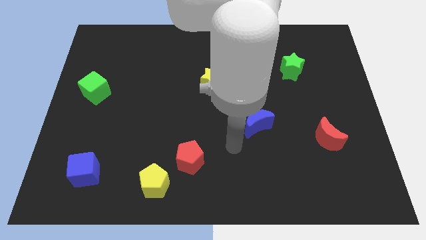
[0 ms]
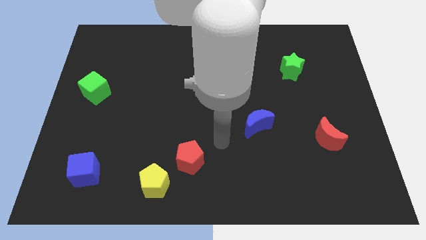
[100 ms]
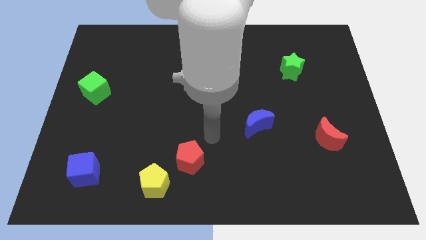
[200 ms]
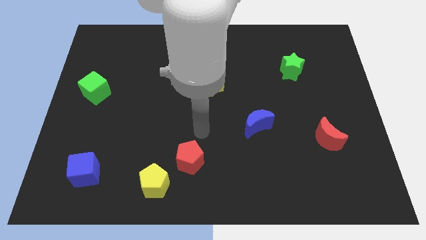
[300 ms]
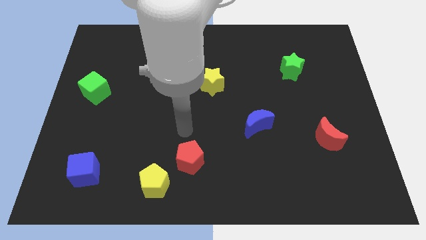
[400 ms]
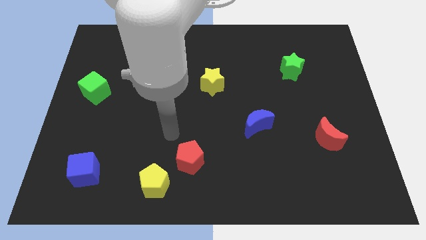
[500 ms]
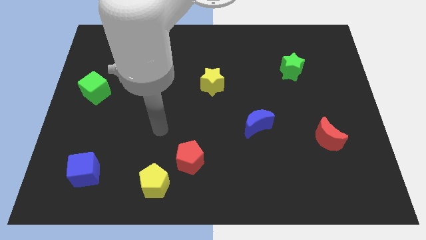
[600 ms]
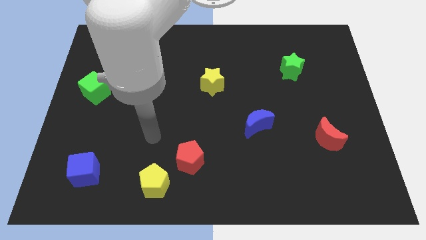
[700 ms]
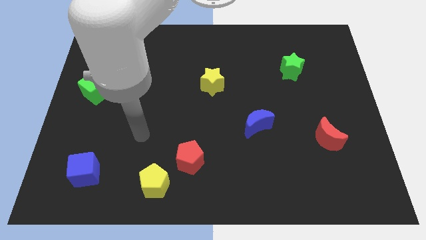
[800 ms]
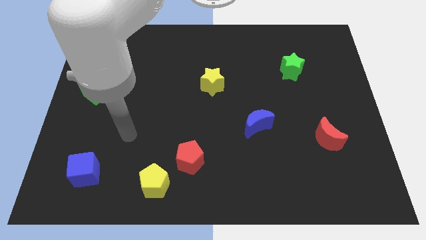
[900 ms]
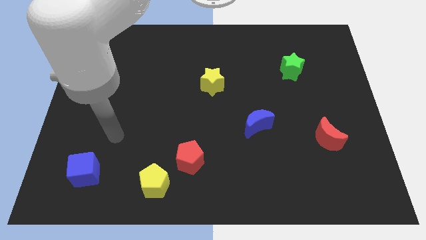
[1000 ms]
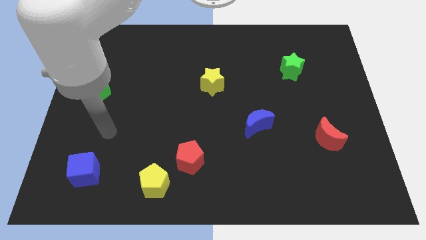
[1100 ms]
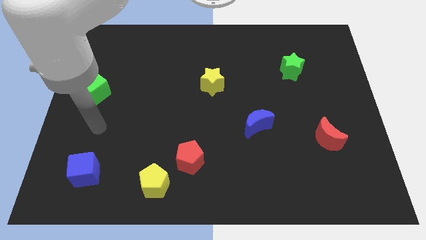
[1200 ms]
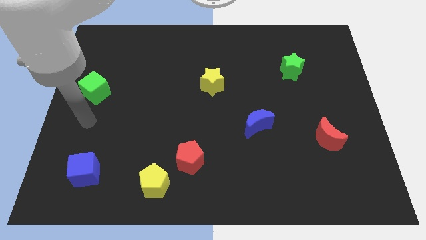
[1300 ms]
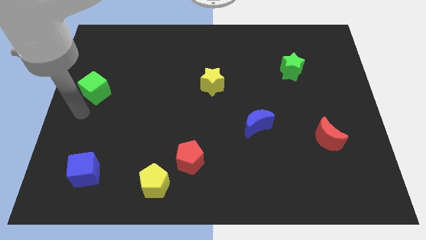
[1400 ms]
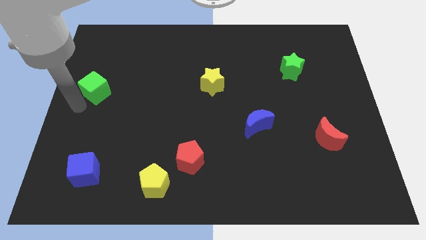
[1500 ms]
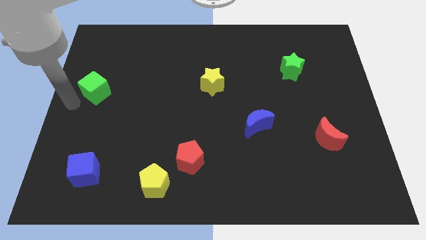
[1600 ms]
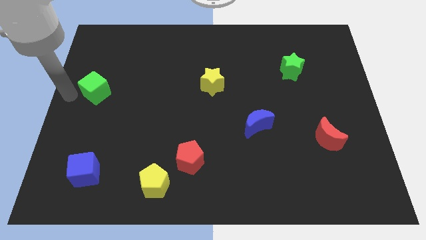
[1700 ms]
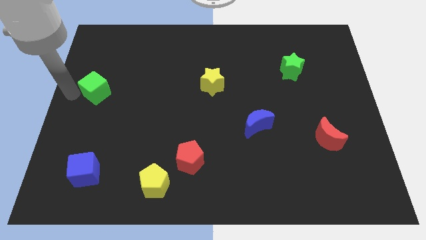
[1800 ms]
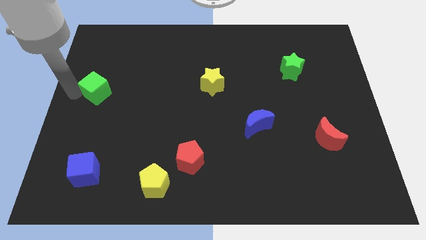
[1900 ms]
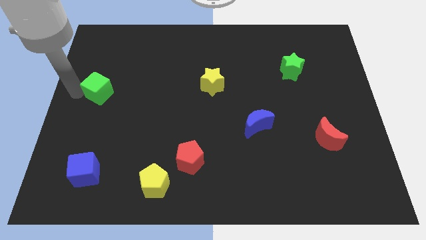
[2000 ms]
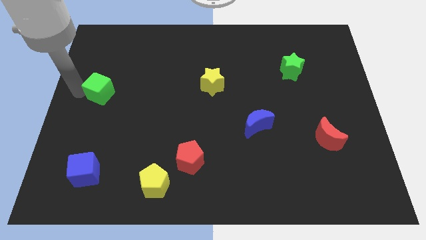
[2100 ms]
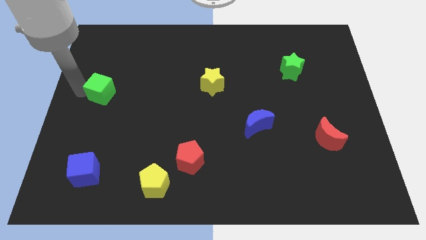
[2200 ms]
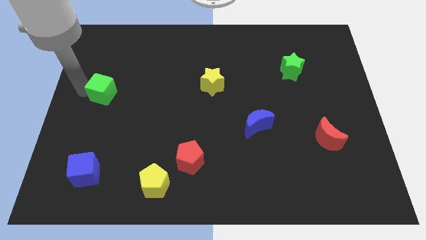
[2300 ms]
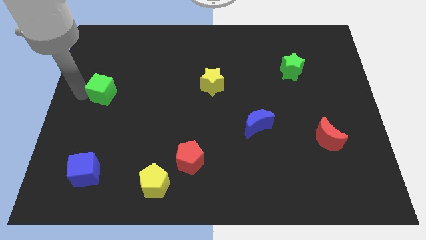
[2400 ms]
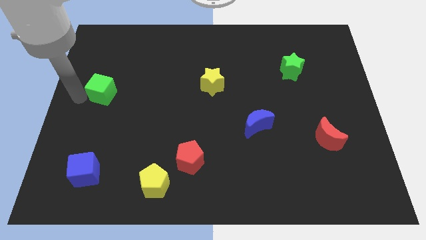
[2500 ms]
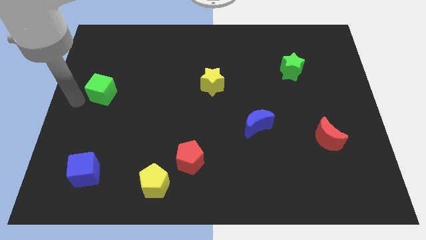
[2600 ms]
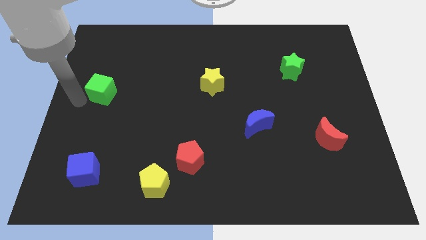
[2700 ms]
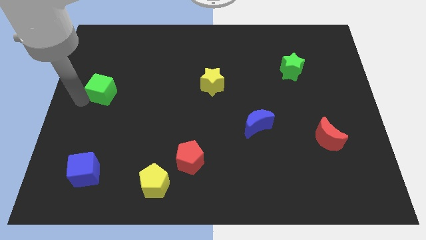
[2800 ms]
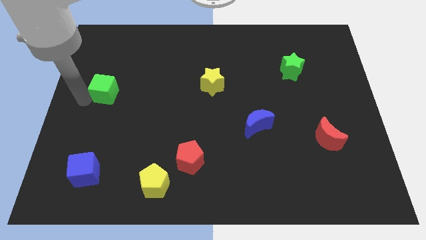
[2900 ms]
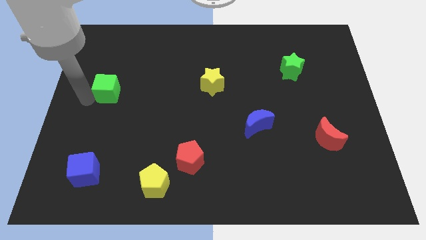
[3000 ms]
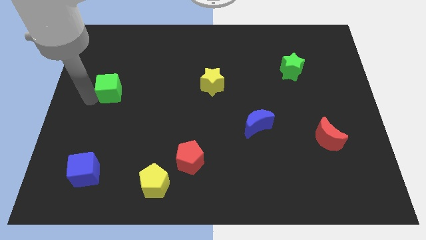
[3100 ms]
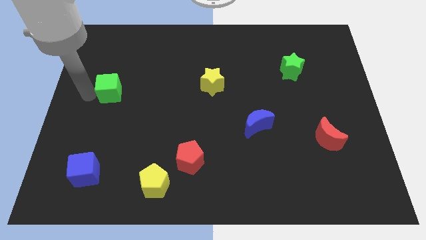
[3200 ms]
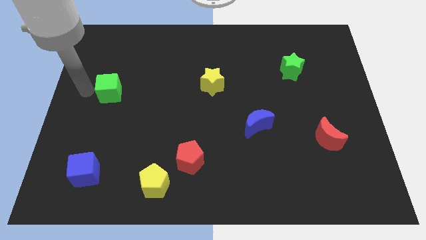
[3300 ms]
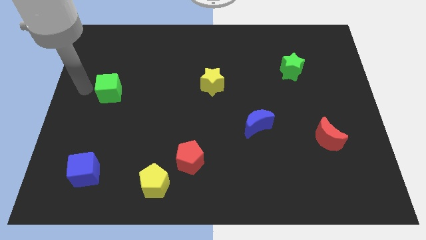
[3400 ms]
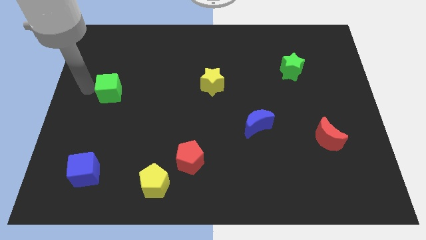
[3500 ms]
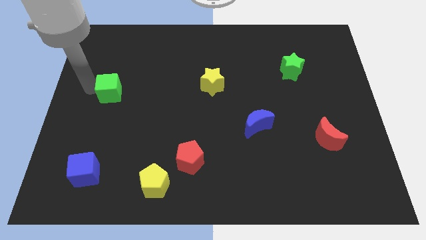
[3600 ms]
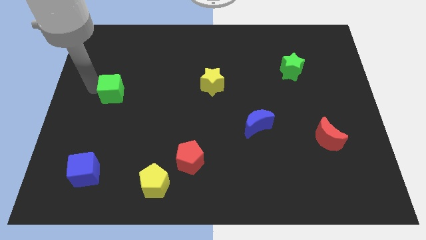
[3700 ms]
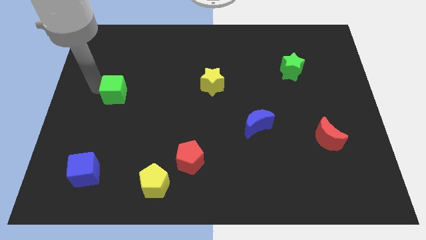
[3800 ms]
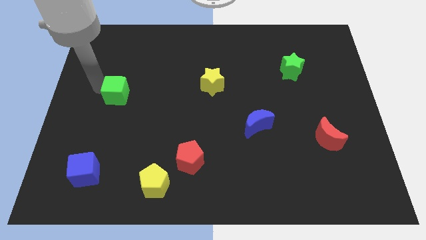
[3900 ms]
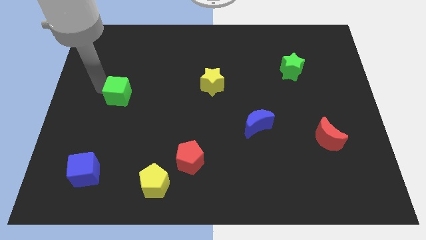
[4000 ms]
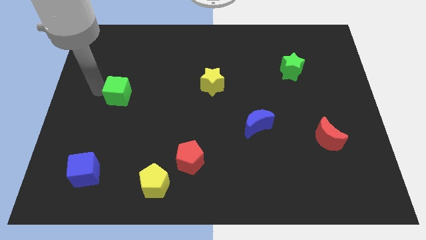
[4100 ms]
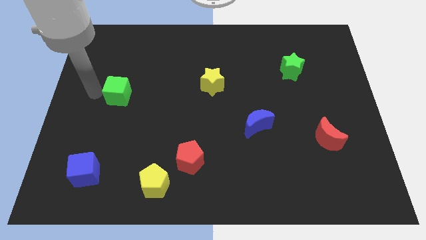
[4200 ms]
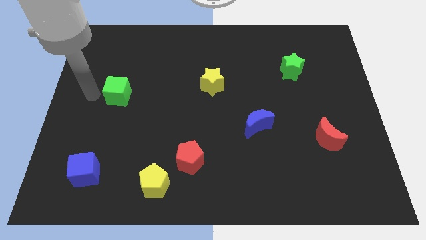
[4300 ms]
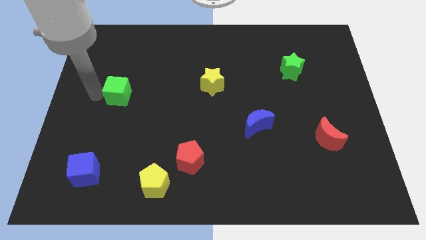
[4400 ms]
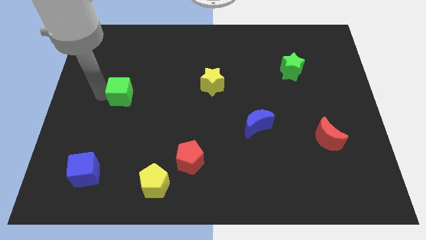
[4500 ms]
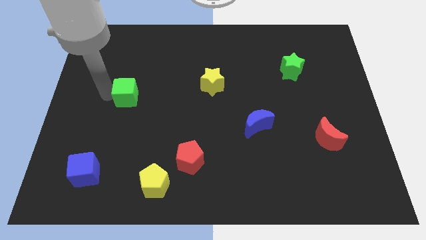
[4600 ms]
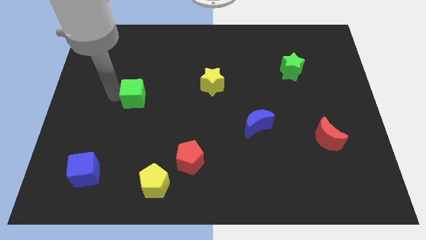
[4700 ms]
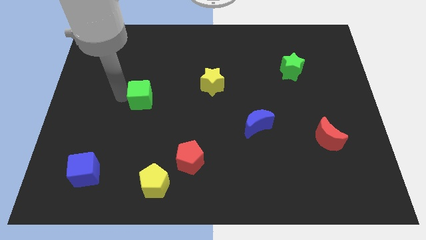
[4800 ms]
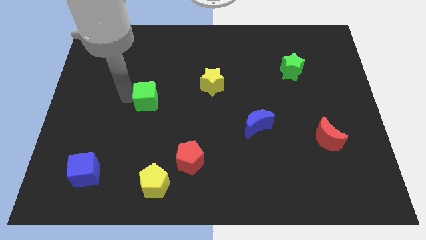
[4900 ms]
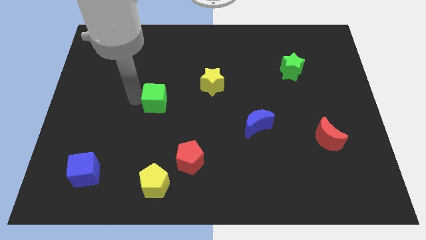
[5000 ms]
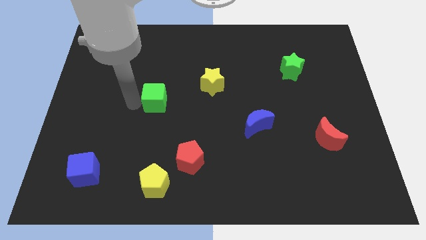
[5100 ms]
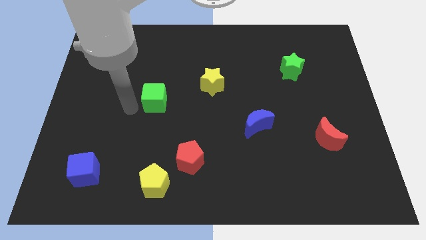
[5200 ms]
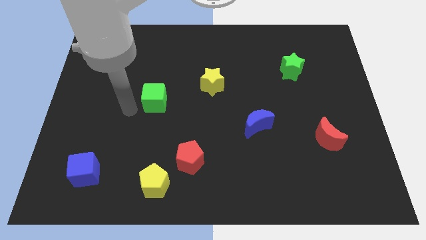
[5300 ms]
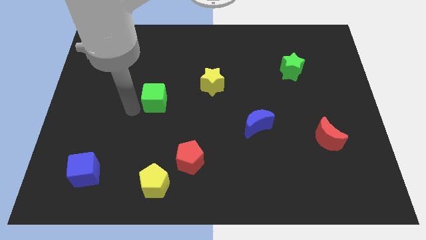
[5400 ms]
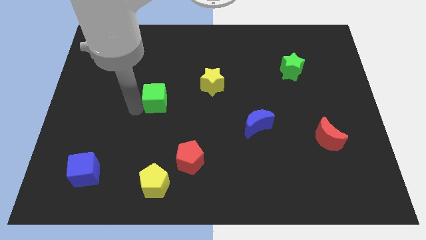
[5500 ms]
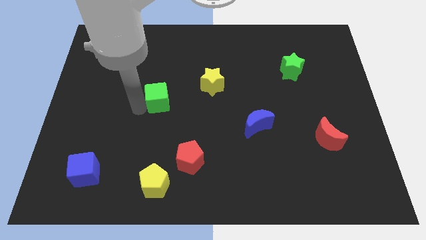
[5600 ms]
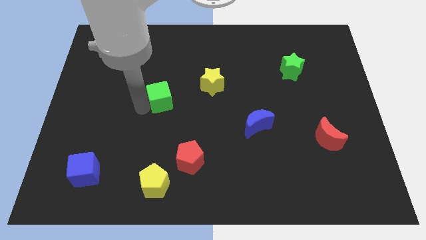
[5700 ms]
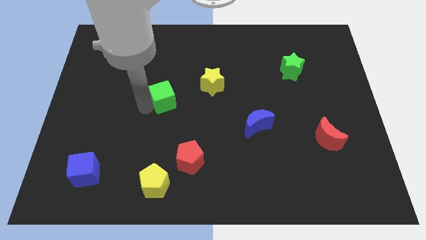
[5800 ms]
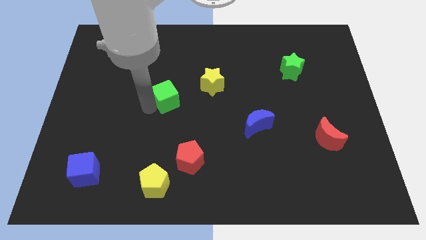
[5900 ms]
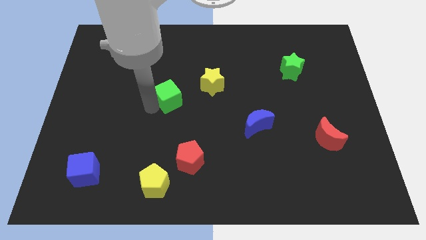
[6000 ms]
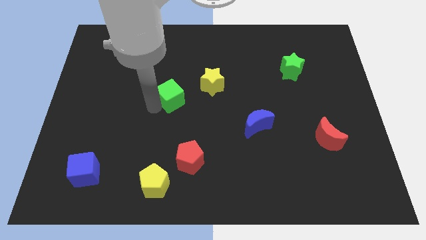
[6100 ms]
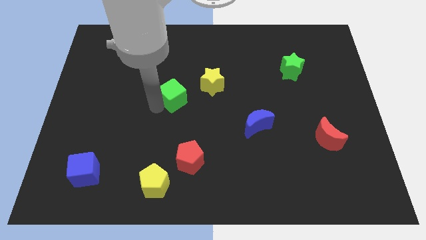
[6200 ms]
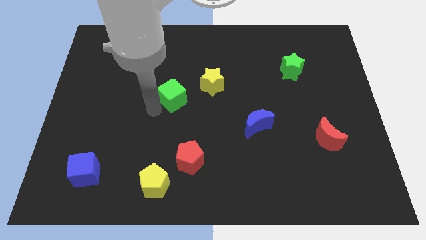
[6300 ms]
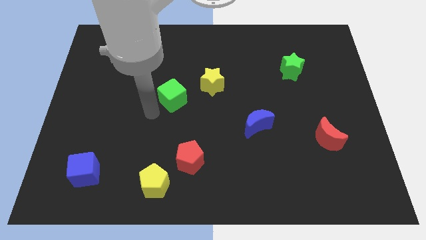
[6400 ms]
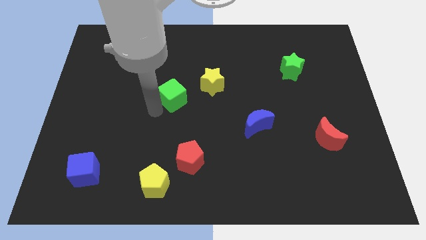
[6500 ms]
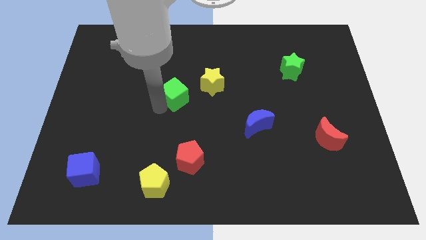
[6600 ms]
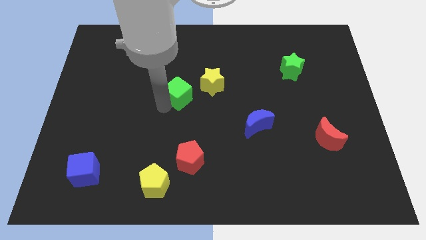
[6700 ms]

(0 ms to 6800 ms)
slide the green cube right

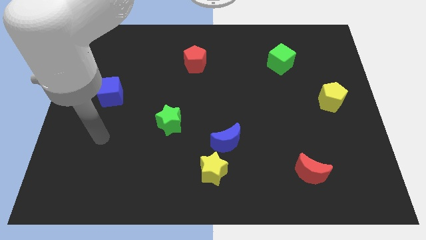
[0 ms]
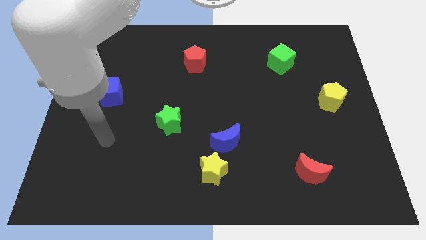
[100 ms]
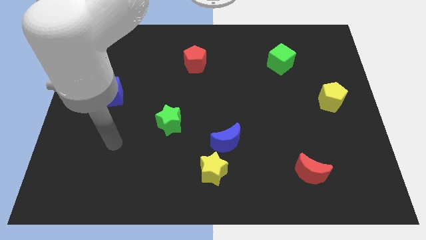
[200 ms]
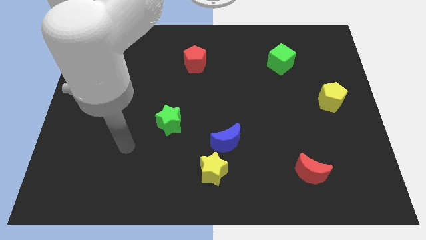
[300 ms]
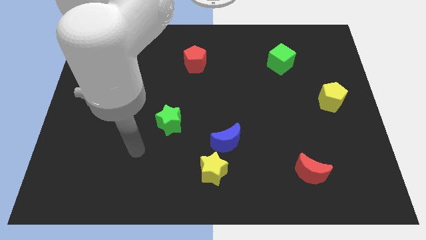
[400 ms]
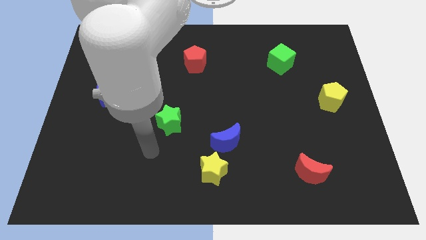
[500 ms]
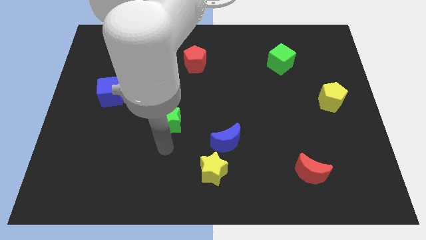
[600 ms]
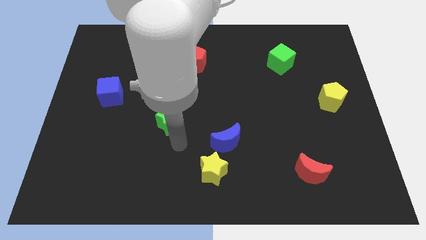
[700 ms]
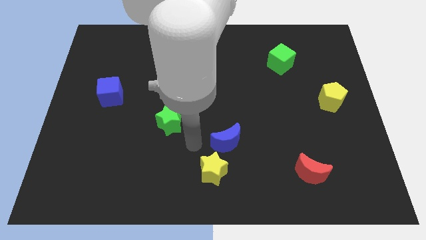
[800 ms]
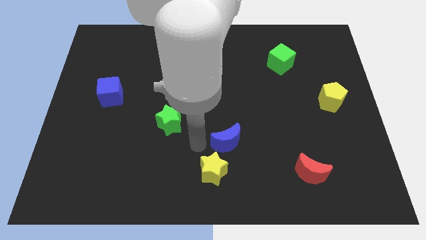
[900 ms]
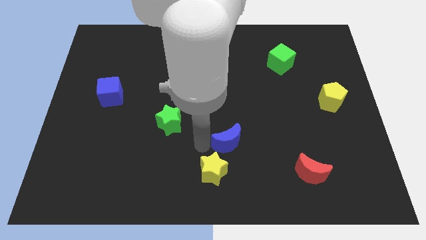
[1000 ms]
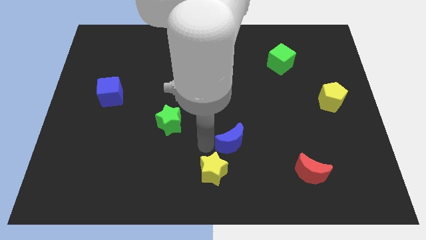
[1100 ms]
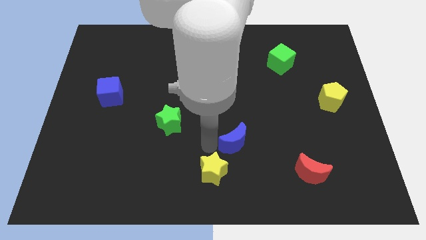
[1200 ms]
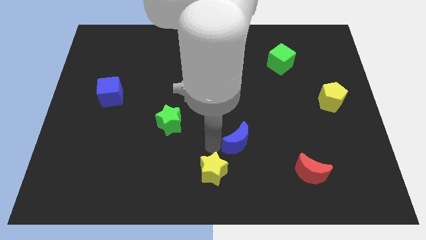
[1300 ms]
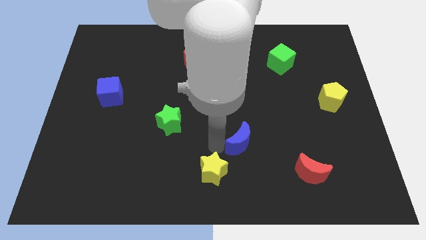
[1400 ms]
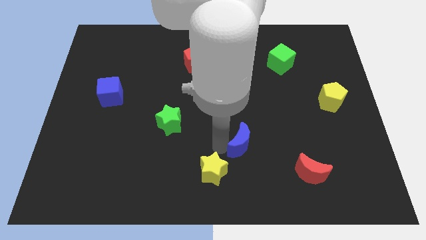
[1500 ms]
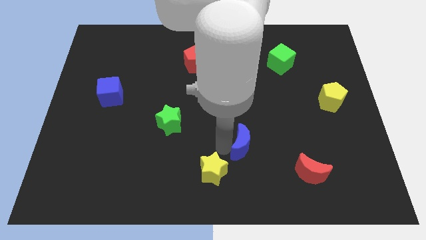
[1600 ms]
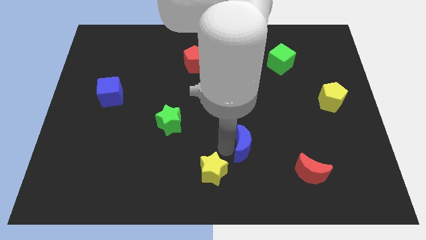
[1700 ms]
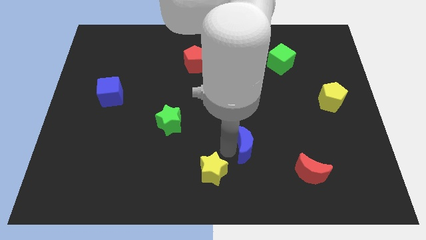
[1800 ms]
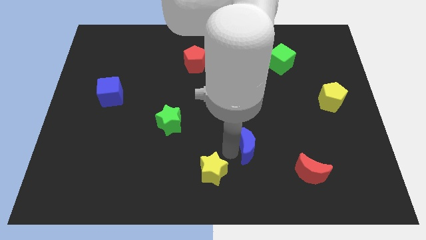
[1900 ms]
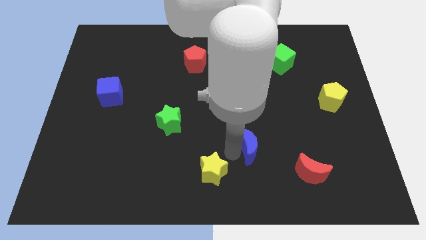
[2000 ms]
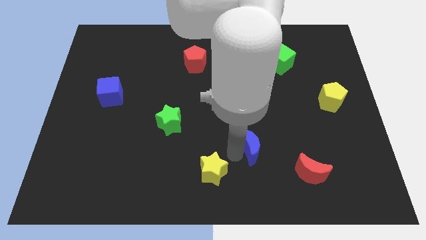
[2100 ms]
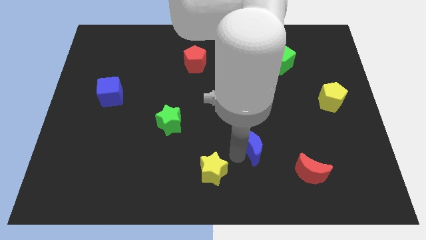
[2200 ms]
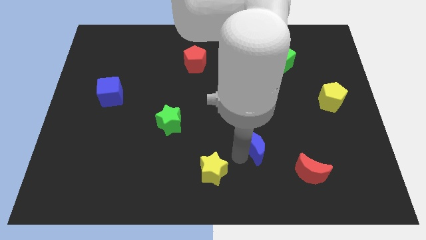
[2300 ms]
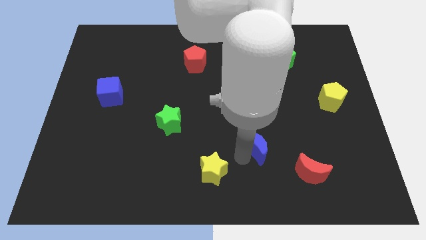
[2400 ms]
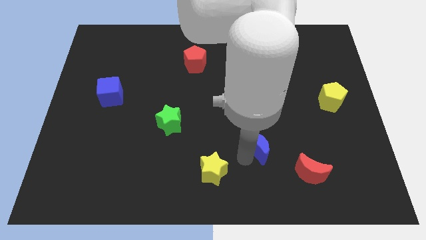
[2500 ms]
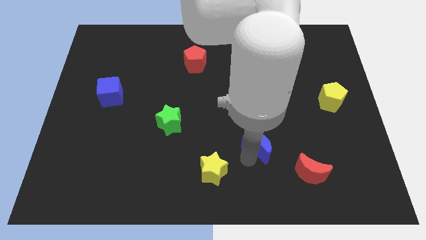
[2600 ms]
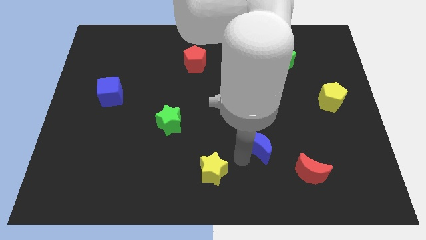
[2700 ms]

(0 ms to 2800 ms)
slightly push the blue moon right
